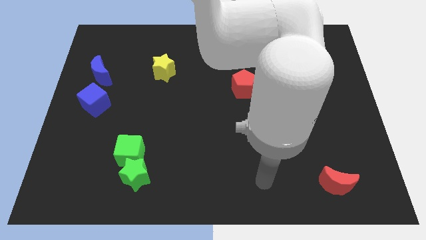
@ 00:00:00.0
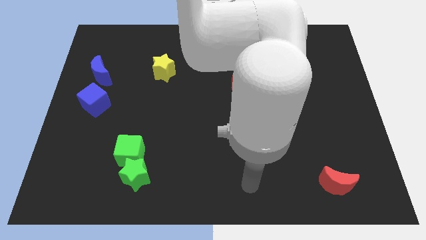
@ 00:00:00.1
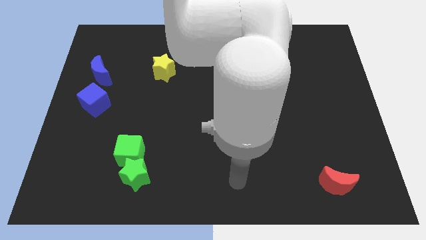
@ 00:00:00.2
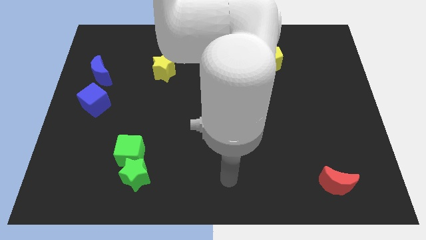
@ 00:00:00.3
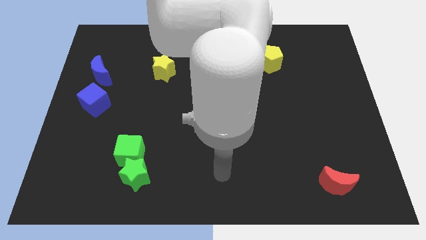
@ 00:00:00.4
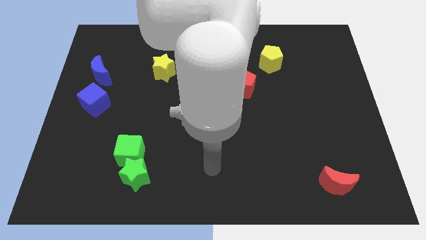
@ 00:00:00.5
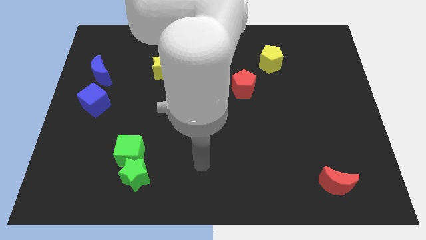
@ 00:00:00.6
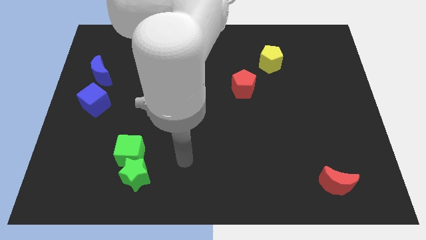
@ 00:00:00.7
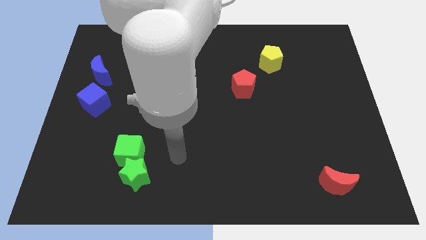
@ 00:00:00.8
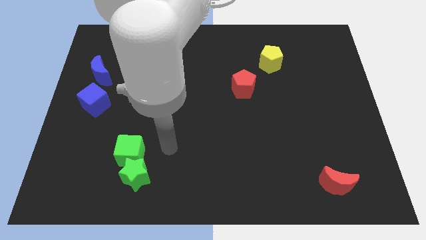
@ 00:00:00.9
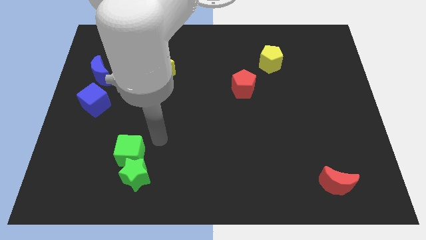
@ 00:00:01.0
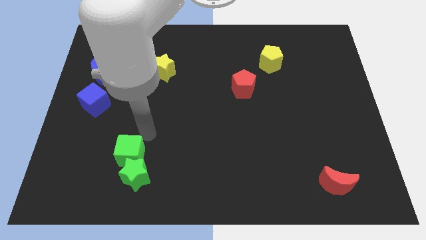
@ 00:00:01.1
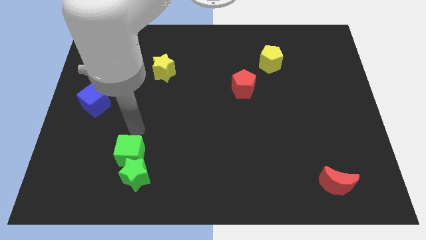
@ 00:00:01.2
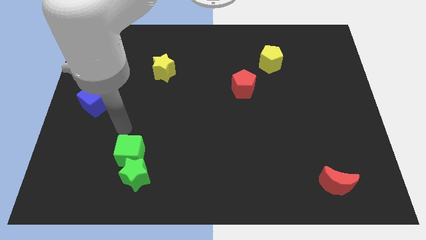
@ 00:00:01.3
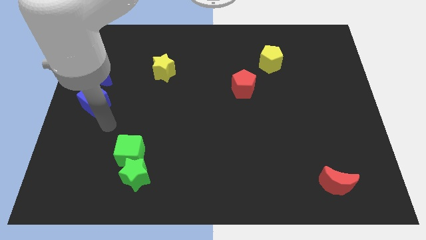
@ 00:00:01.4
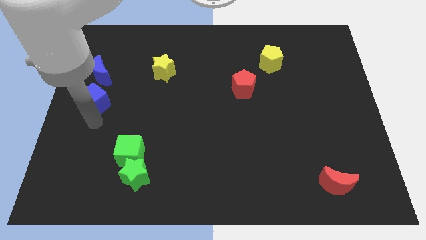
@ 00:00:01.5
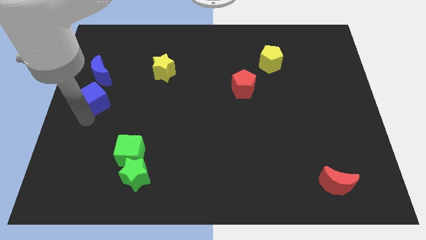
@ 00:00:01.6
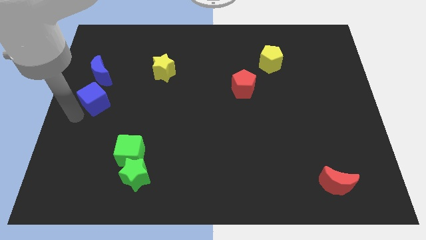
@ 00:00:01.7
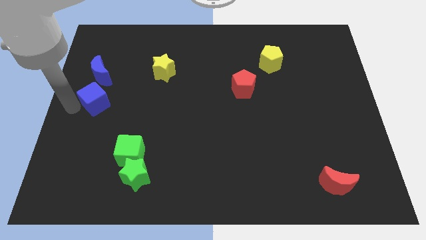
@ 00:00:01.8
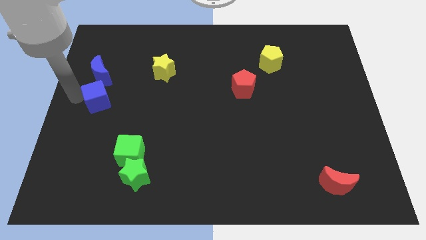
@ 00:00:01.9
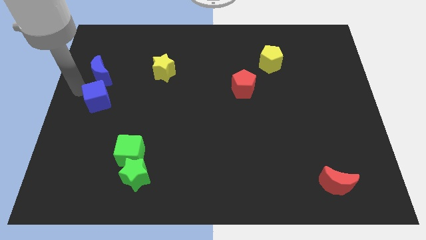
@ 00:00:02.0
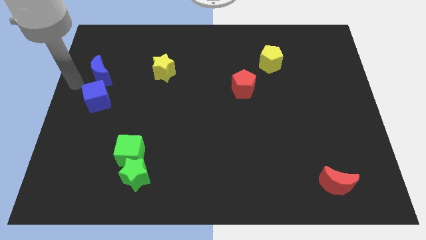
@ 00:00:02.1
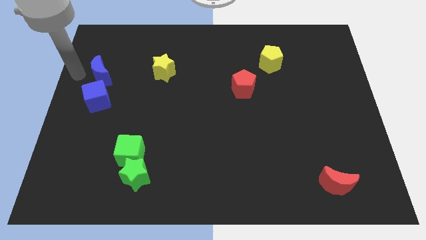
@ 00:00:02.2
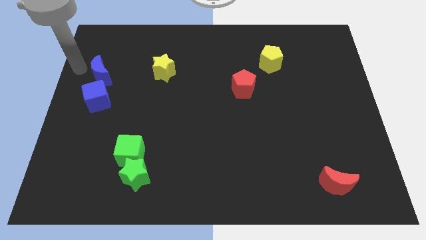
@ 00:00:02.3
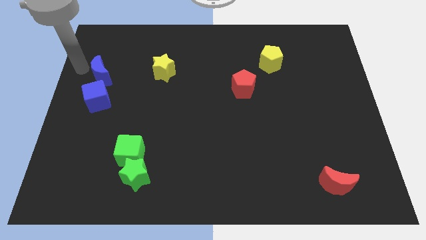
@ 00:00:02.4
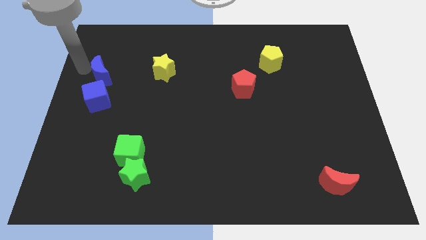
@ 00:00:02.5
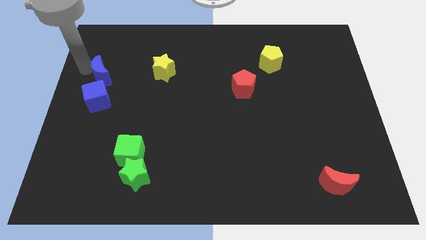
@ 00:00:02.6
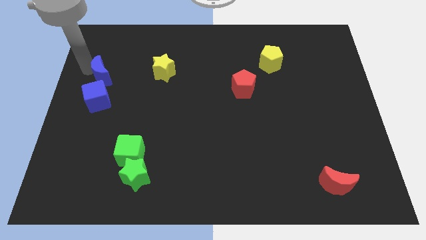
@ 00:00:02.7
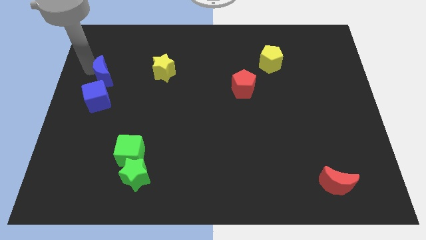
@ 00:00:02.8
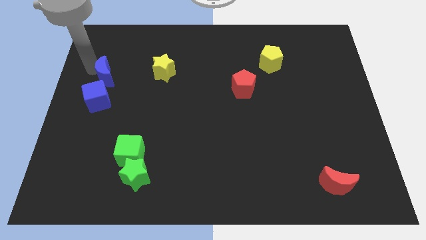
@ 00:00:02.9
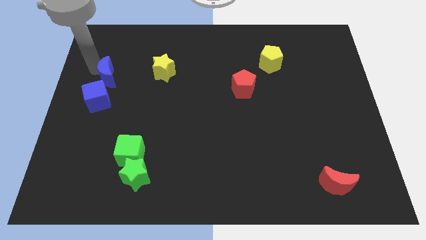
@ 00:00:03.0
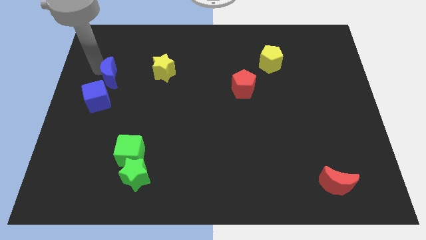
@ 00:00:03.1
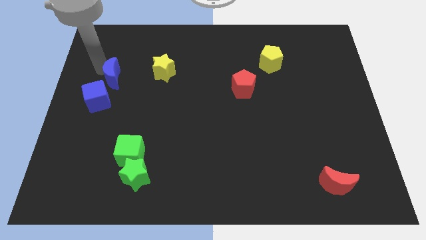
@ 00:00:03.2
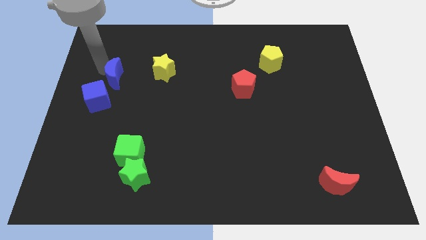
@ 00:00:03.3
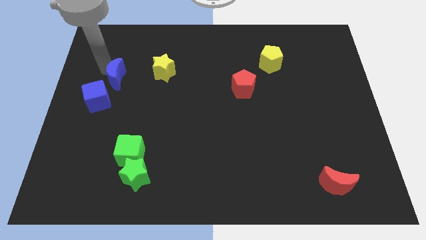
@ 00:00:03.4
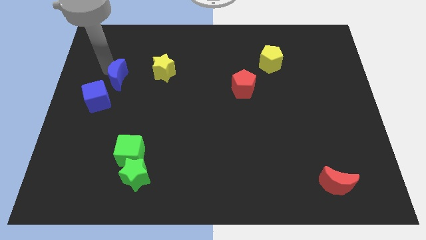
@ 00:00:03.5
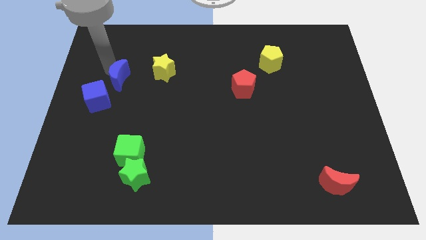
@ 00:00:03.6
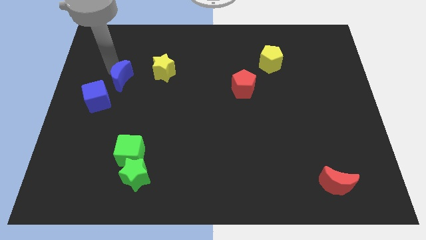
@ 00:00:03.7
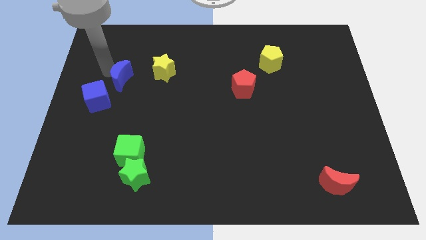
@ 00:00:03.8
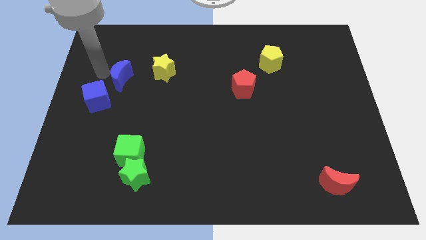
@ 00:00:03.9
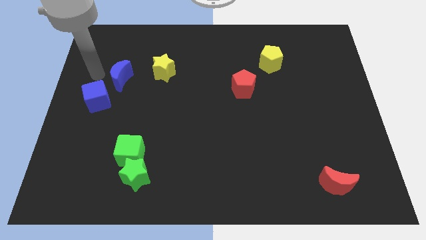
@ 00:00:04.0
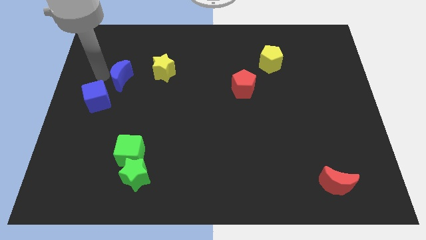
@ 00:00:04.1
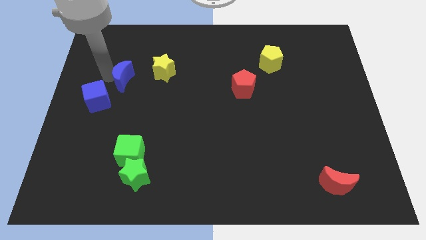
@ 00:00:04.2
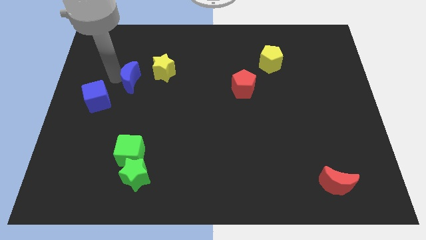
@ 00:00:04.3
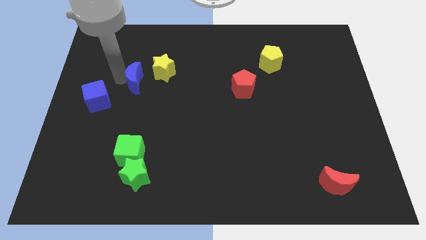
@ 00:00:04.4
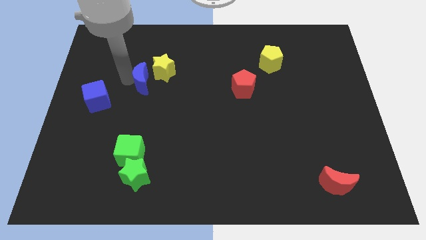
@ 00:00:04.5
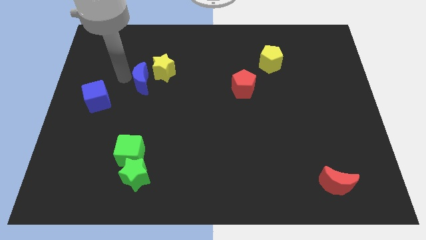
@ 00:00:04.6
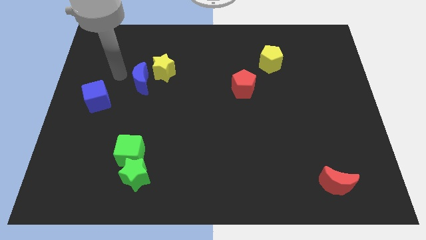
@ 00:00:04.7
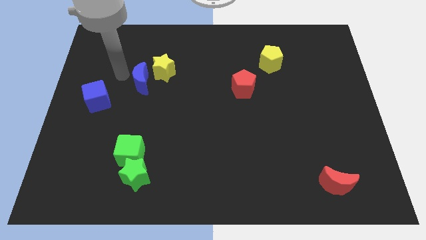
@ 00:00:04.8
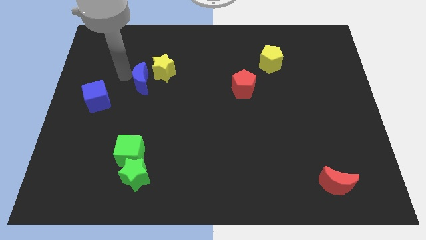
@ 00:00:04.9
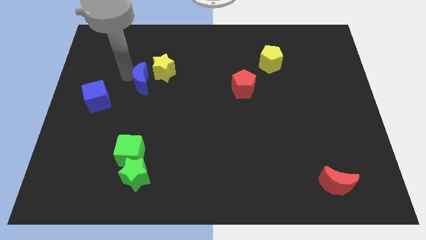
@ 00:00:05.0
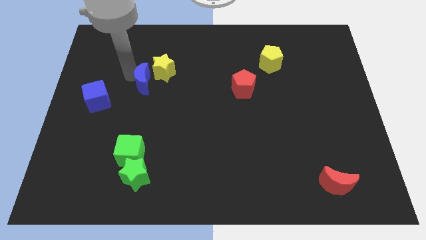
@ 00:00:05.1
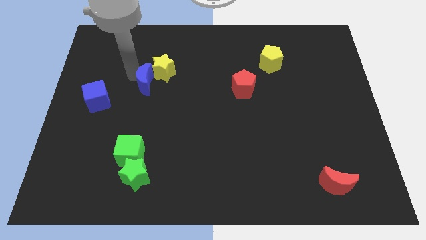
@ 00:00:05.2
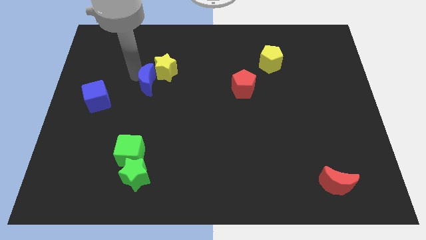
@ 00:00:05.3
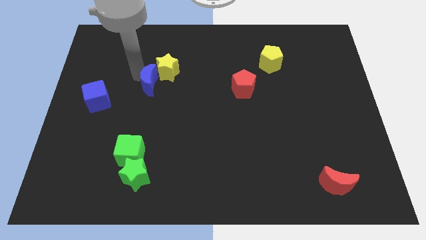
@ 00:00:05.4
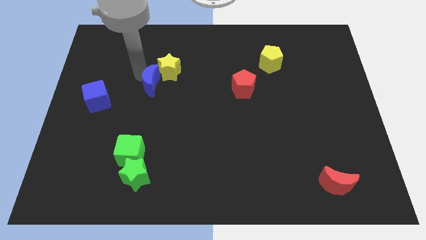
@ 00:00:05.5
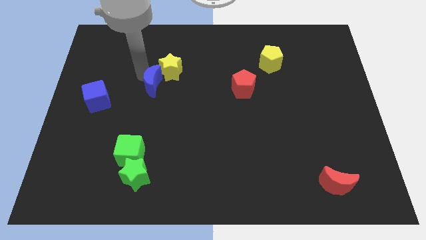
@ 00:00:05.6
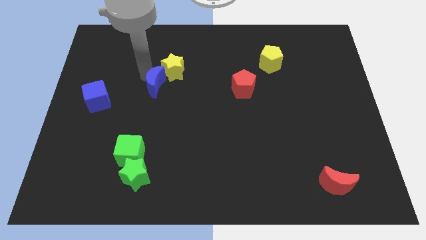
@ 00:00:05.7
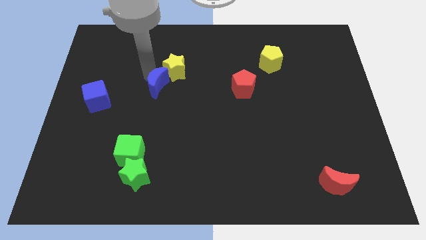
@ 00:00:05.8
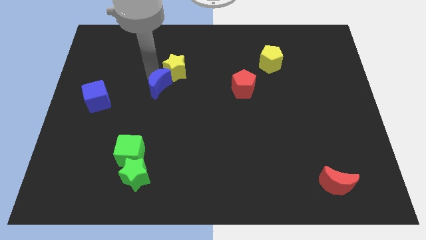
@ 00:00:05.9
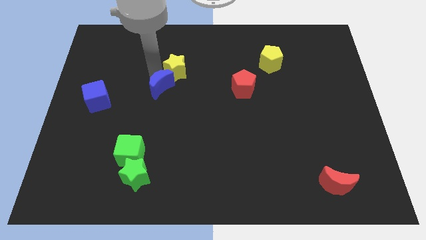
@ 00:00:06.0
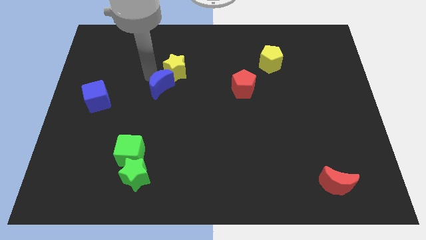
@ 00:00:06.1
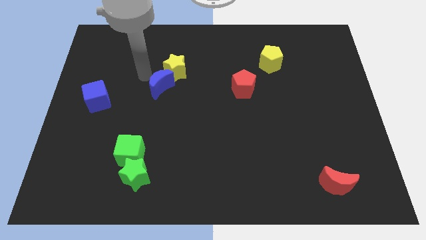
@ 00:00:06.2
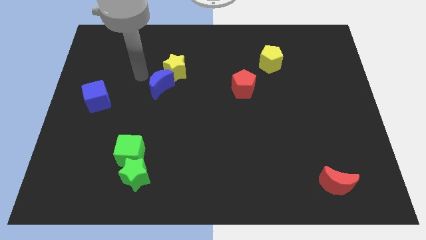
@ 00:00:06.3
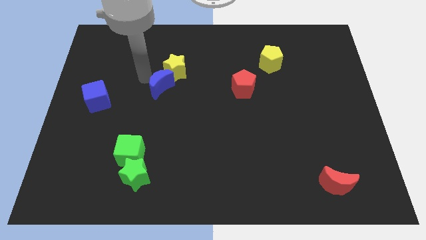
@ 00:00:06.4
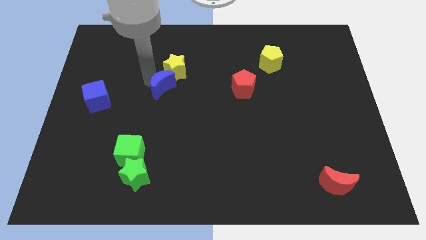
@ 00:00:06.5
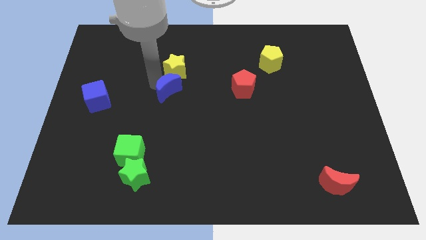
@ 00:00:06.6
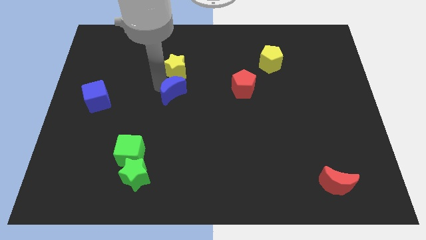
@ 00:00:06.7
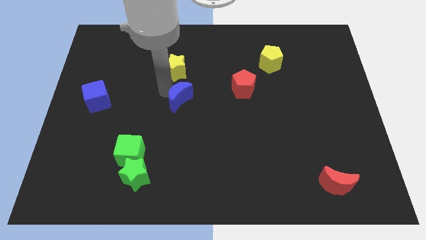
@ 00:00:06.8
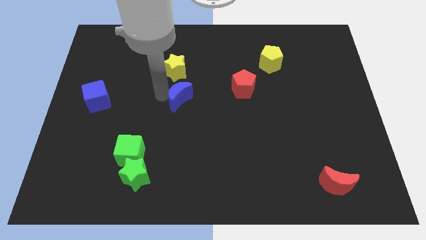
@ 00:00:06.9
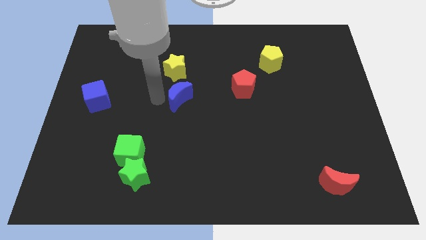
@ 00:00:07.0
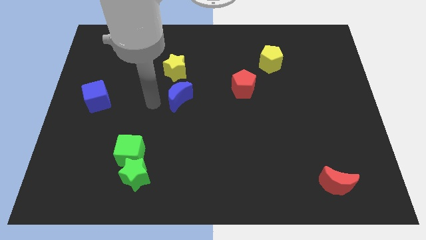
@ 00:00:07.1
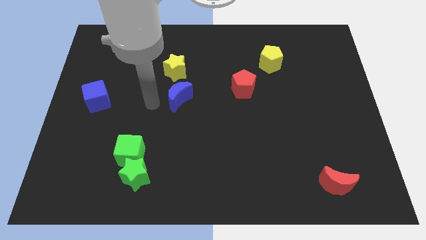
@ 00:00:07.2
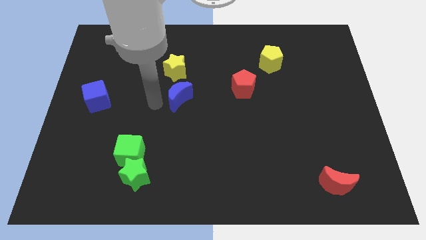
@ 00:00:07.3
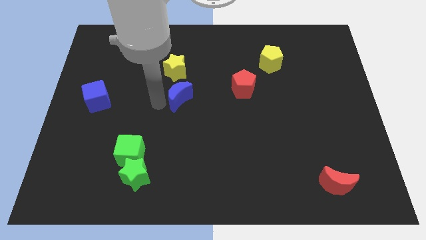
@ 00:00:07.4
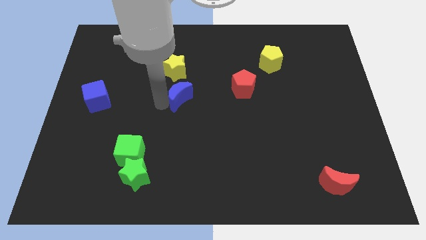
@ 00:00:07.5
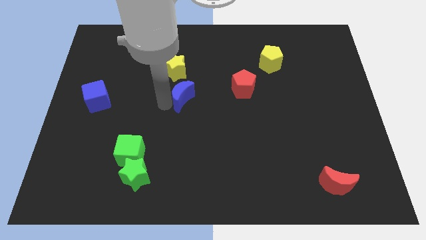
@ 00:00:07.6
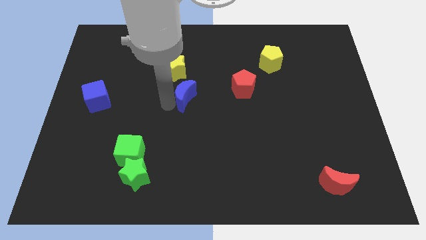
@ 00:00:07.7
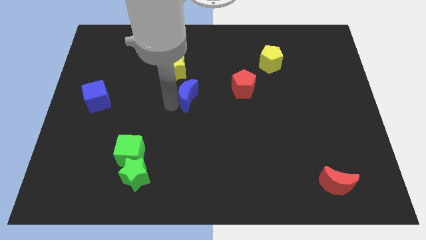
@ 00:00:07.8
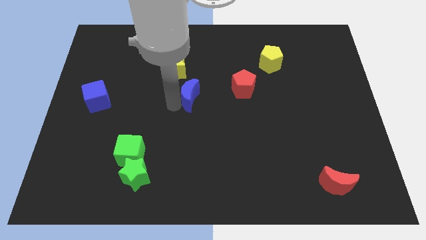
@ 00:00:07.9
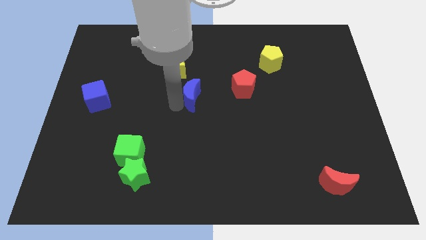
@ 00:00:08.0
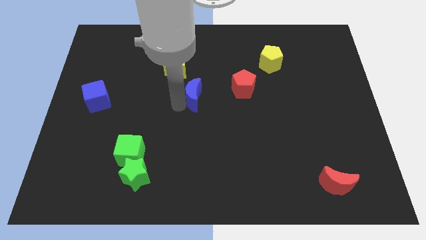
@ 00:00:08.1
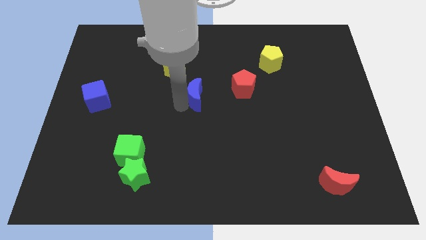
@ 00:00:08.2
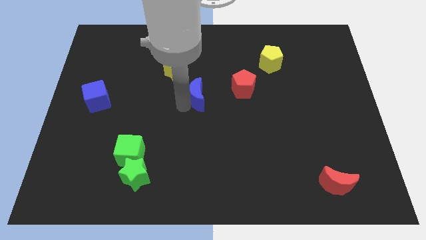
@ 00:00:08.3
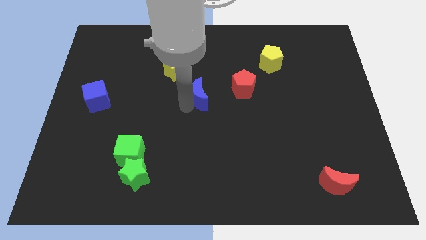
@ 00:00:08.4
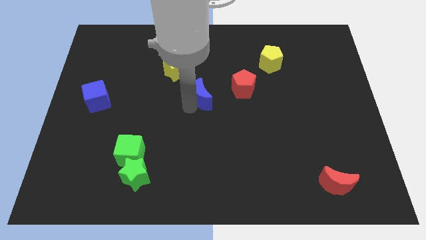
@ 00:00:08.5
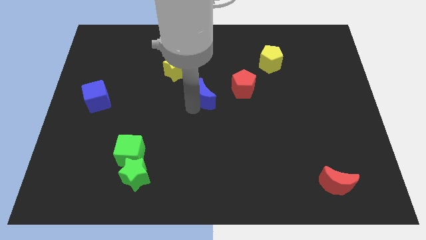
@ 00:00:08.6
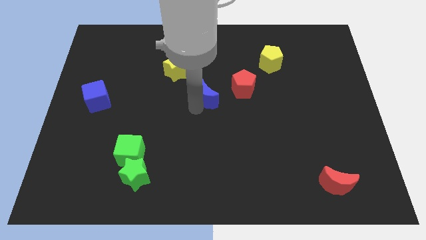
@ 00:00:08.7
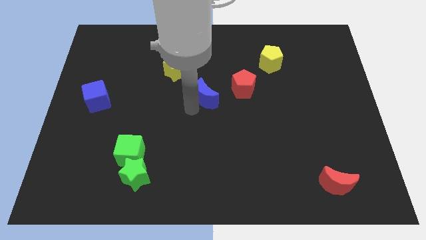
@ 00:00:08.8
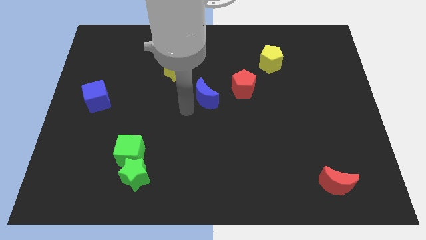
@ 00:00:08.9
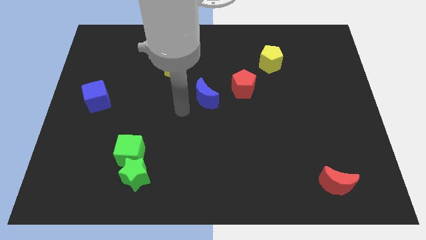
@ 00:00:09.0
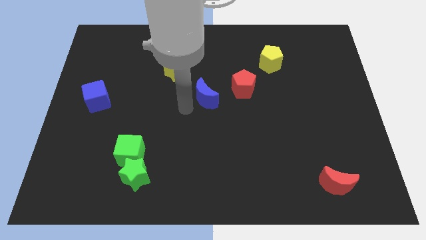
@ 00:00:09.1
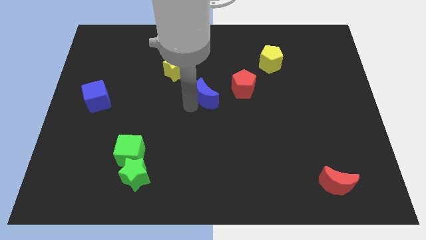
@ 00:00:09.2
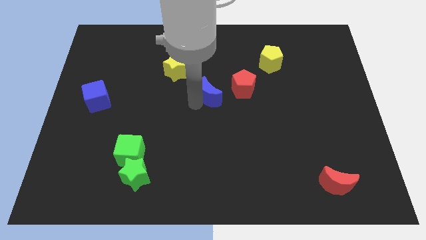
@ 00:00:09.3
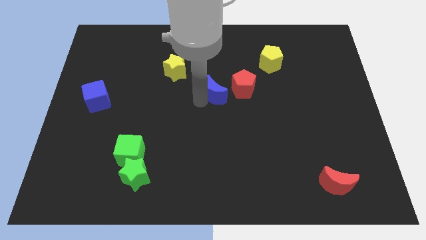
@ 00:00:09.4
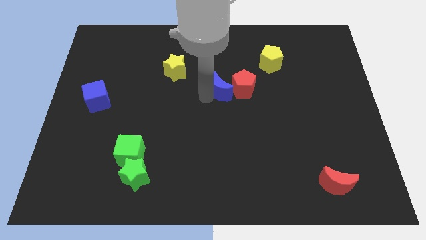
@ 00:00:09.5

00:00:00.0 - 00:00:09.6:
push the blue moon to the red pentagon
